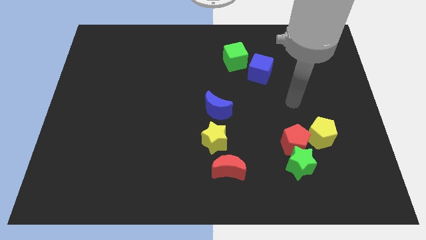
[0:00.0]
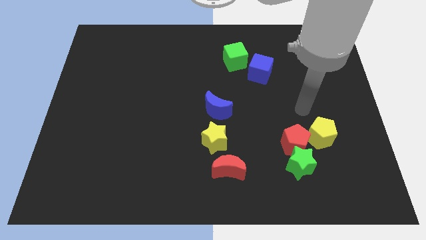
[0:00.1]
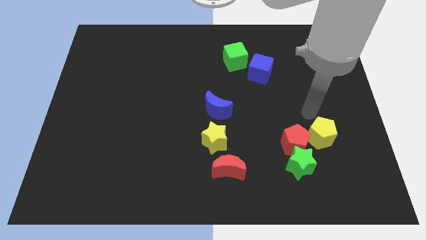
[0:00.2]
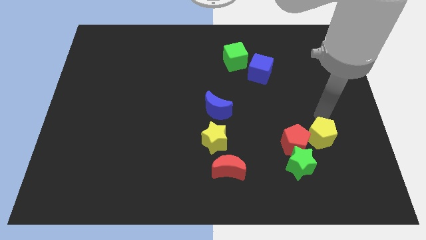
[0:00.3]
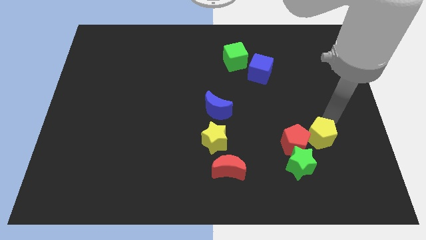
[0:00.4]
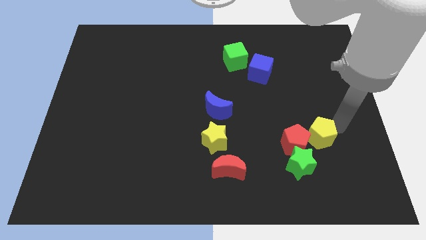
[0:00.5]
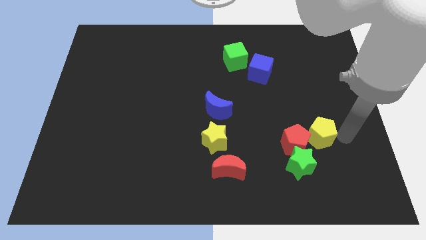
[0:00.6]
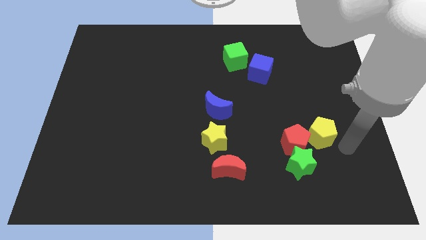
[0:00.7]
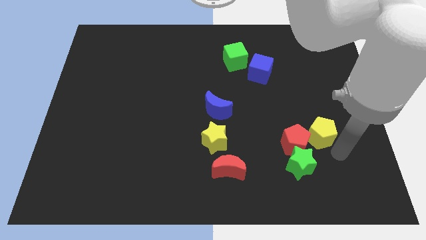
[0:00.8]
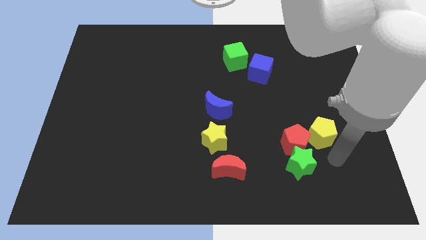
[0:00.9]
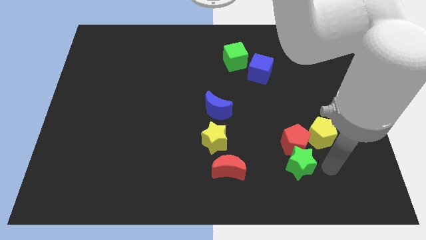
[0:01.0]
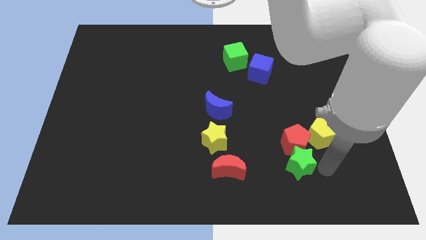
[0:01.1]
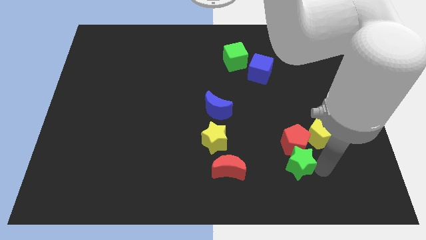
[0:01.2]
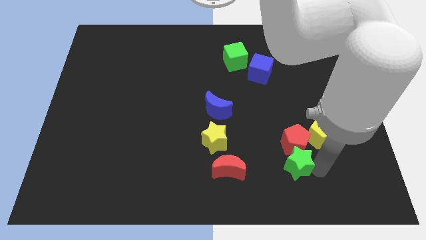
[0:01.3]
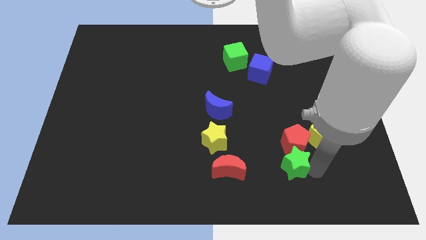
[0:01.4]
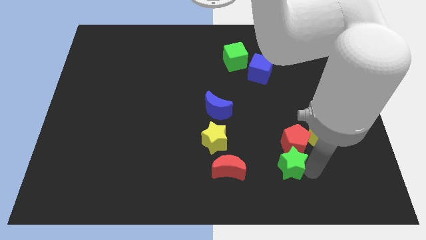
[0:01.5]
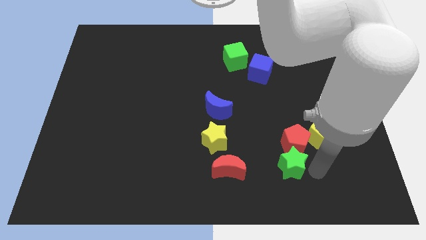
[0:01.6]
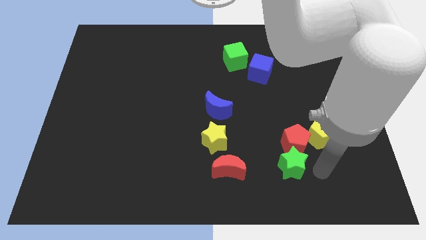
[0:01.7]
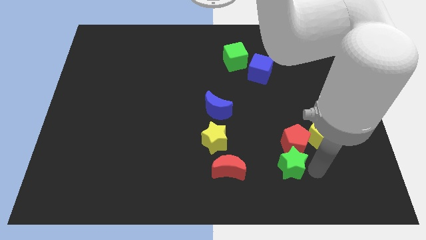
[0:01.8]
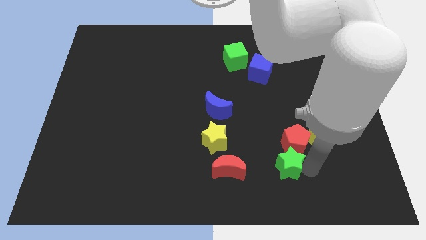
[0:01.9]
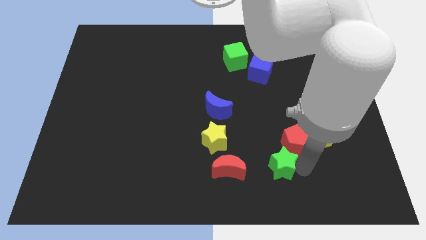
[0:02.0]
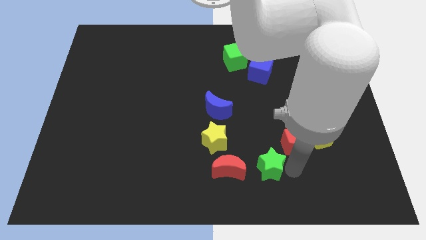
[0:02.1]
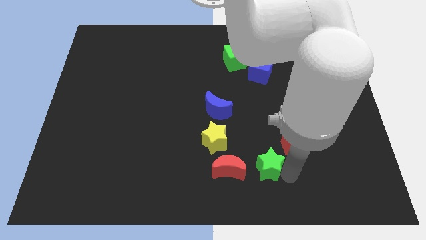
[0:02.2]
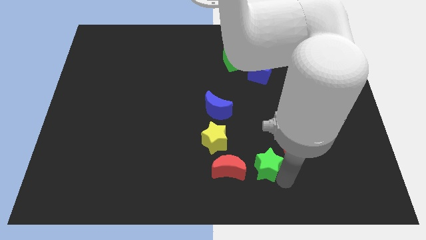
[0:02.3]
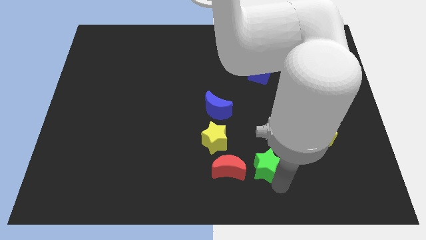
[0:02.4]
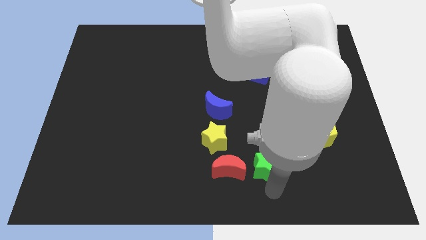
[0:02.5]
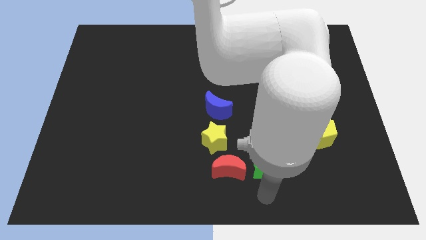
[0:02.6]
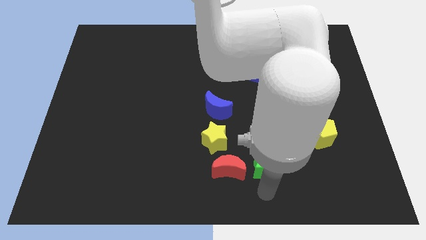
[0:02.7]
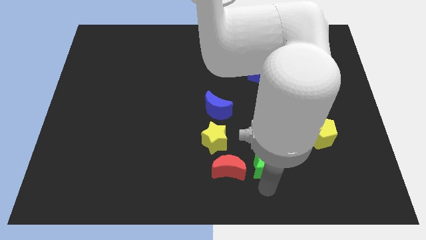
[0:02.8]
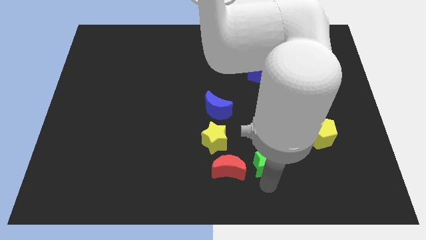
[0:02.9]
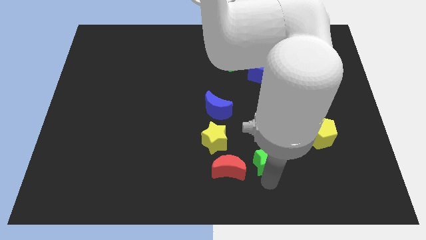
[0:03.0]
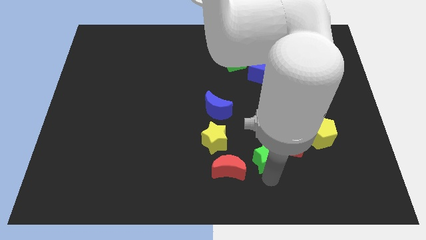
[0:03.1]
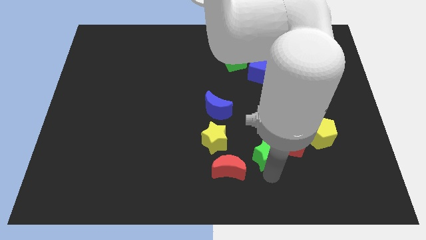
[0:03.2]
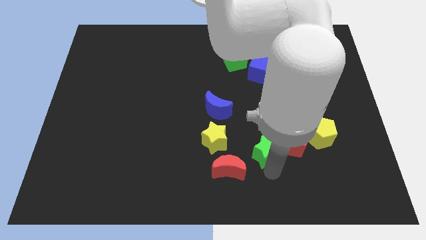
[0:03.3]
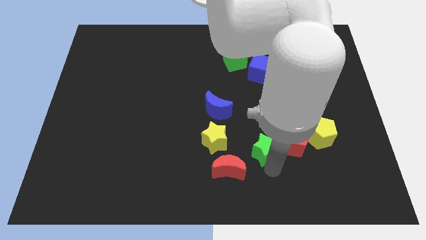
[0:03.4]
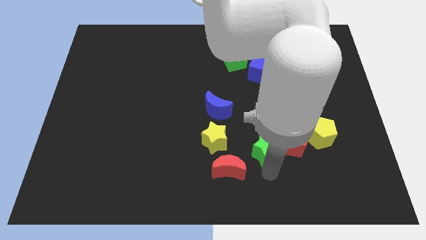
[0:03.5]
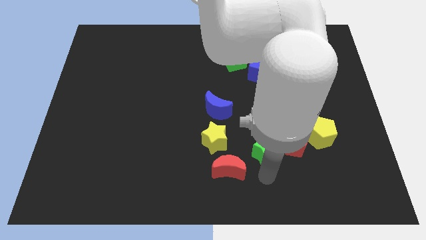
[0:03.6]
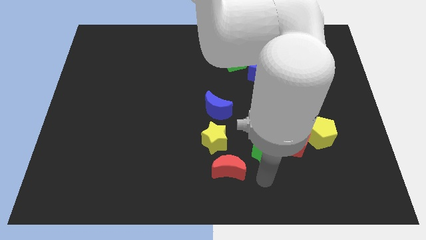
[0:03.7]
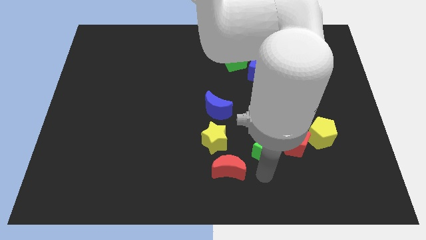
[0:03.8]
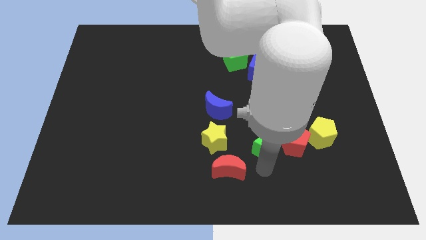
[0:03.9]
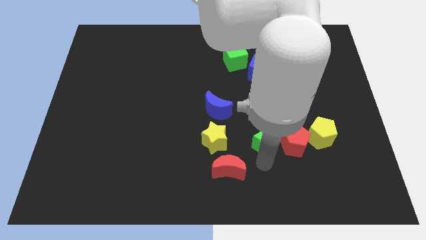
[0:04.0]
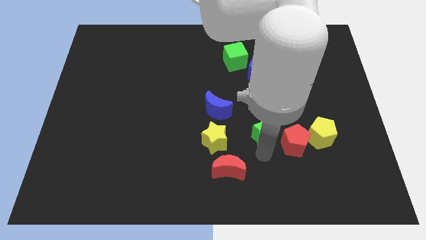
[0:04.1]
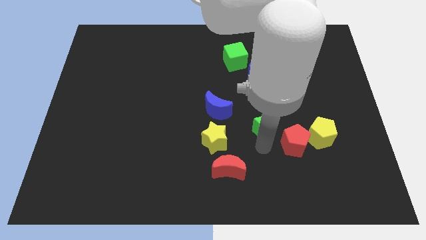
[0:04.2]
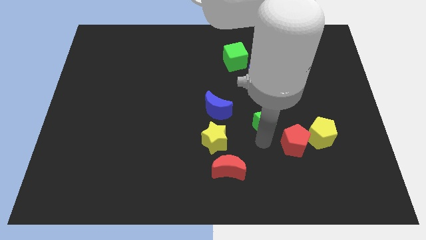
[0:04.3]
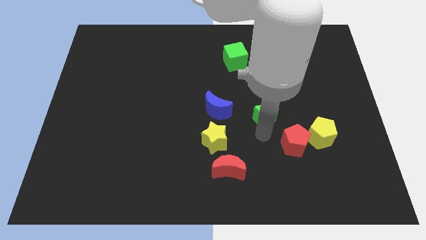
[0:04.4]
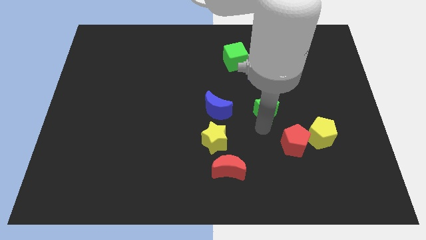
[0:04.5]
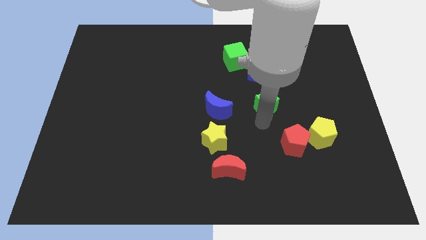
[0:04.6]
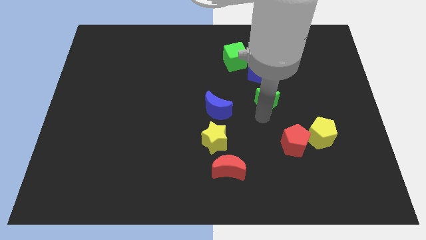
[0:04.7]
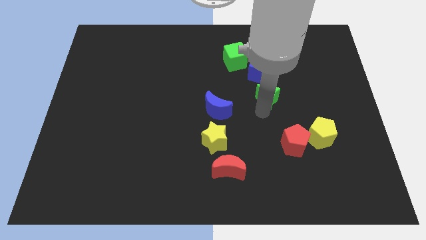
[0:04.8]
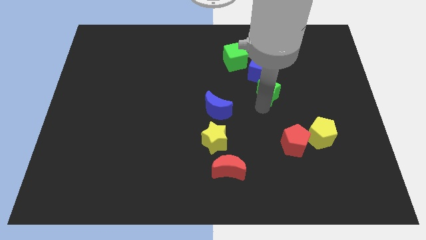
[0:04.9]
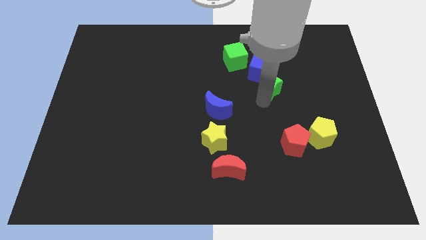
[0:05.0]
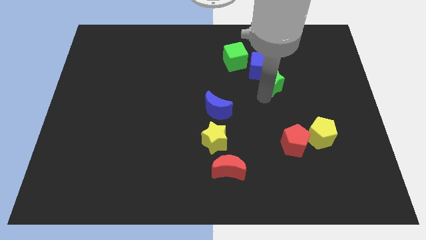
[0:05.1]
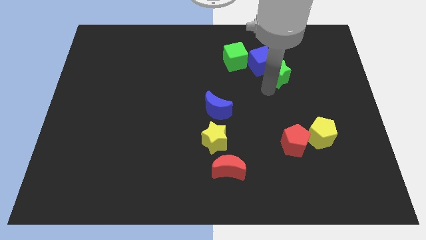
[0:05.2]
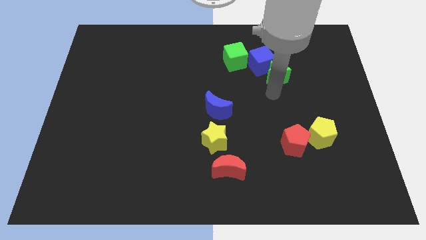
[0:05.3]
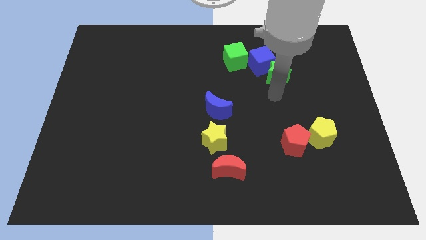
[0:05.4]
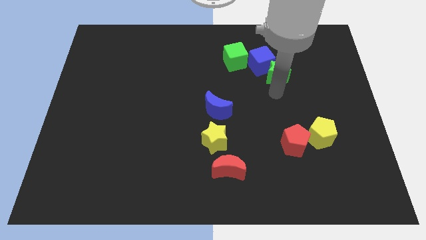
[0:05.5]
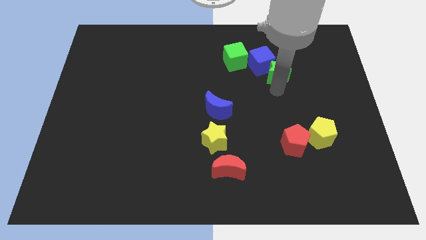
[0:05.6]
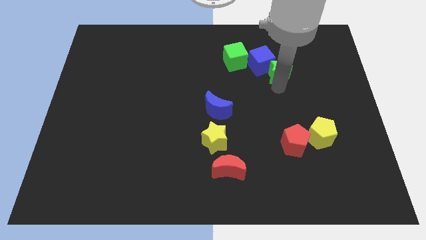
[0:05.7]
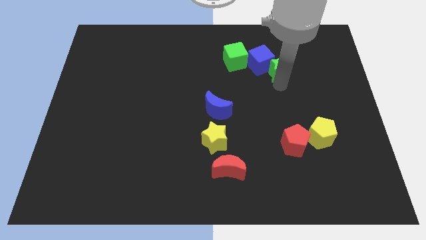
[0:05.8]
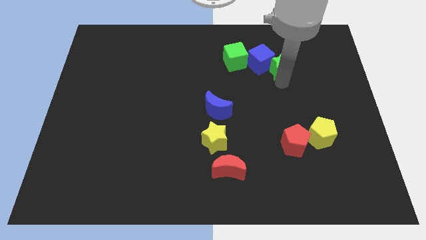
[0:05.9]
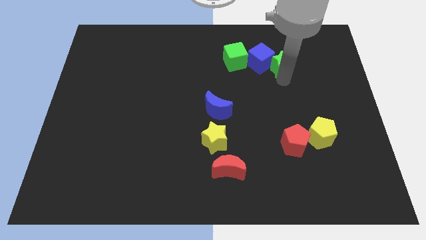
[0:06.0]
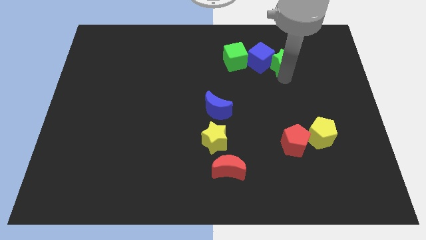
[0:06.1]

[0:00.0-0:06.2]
move the green star to the top right of the blue cube

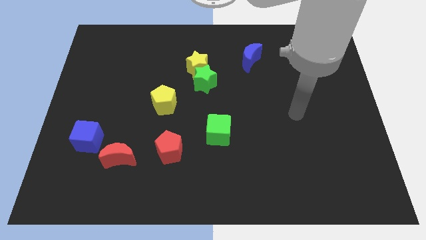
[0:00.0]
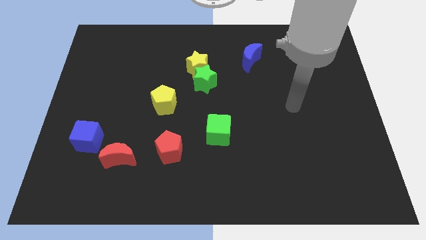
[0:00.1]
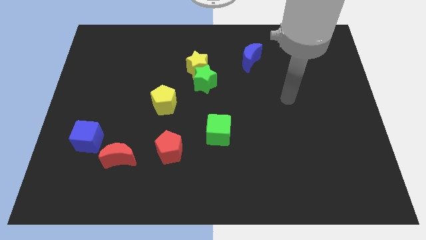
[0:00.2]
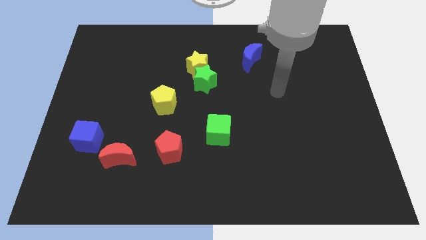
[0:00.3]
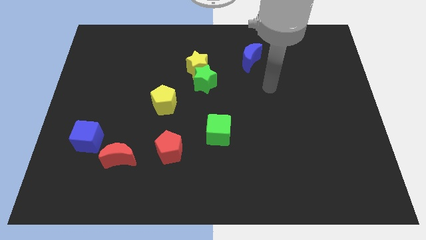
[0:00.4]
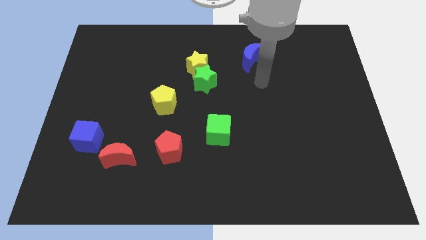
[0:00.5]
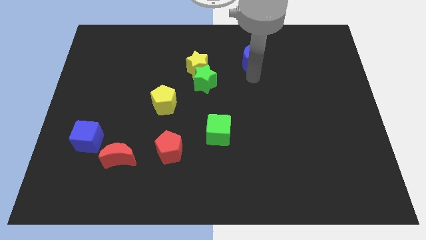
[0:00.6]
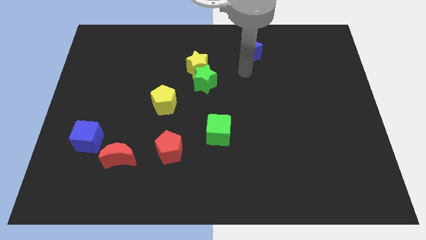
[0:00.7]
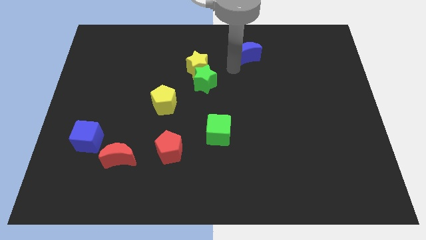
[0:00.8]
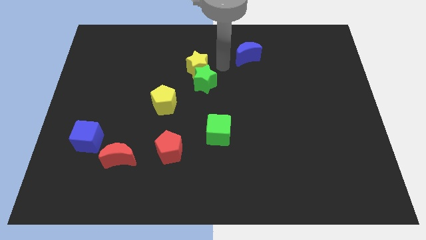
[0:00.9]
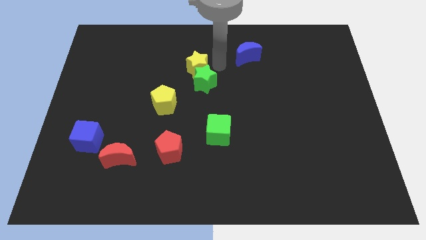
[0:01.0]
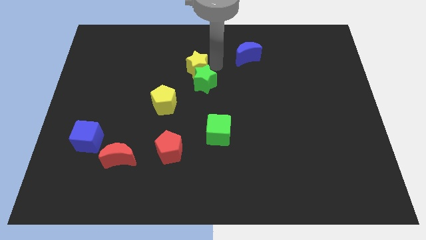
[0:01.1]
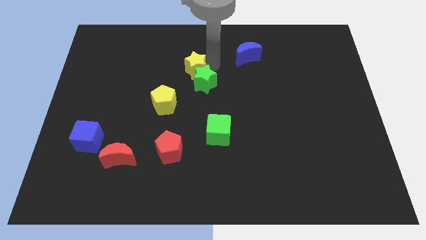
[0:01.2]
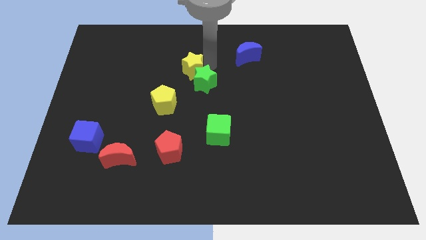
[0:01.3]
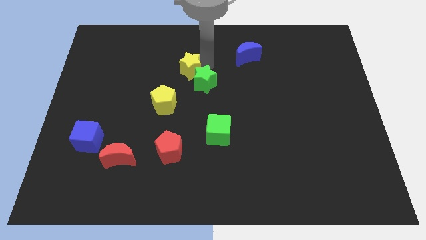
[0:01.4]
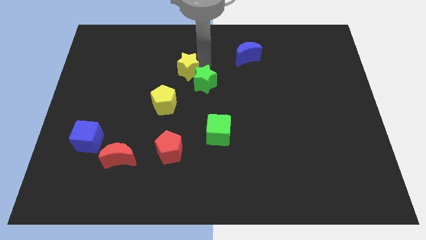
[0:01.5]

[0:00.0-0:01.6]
put the yellow star to the top of the yellow pentagon
